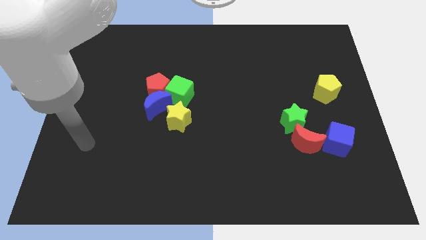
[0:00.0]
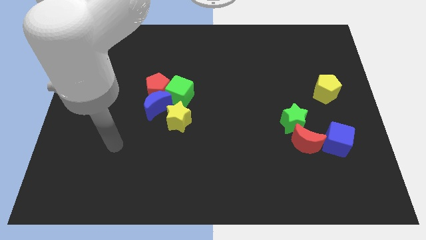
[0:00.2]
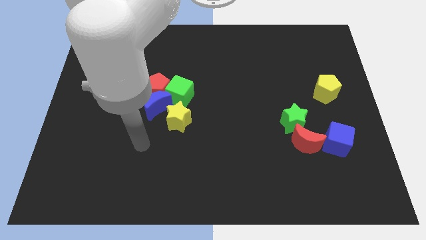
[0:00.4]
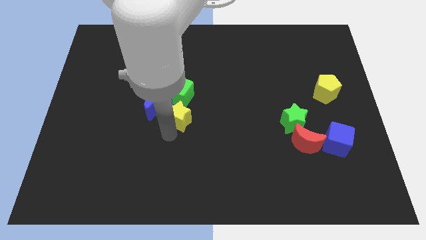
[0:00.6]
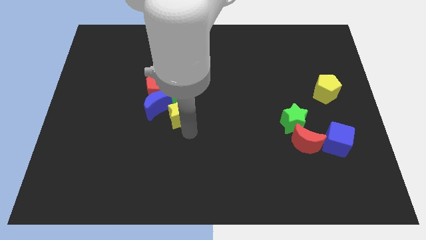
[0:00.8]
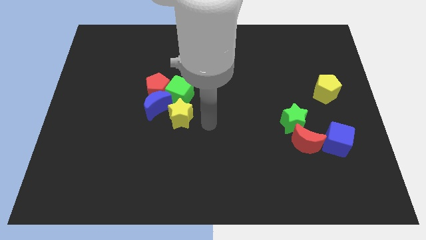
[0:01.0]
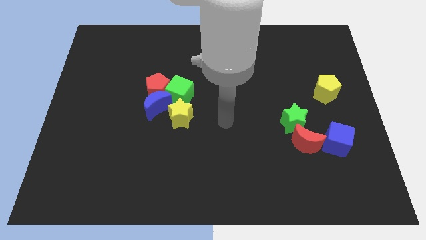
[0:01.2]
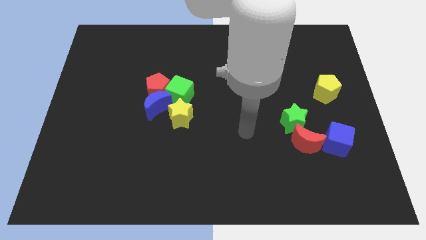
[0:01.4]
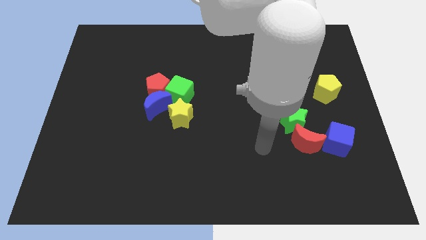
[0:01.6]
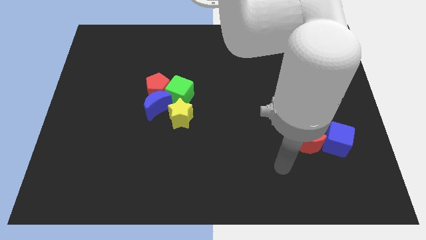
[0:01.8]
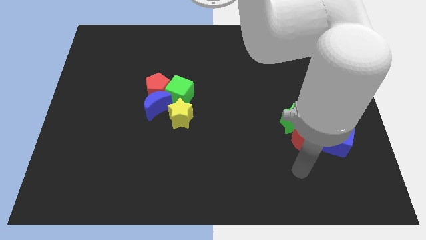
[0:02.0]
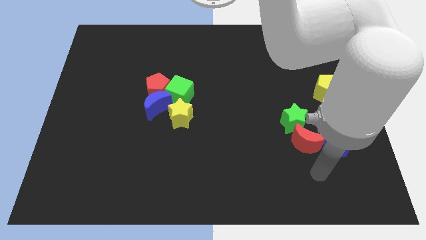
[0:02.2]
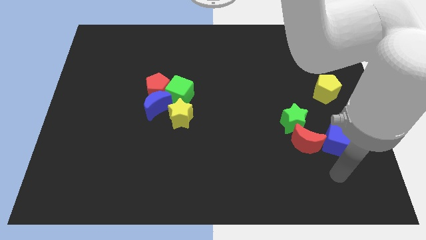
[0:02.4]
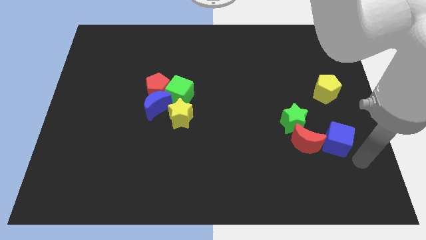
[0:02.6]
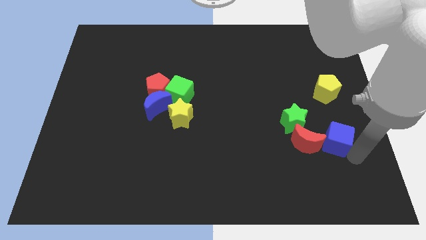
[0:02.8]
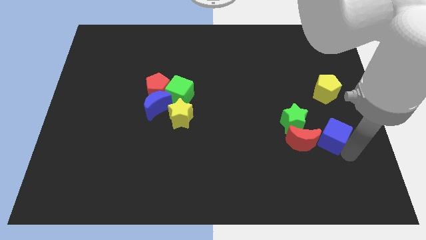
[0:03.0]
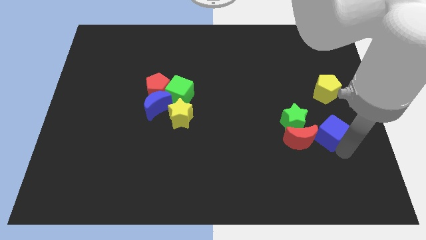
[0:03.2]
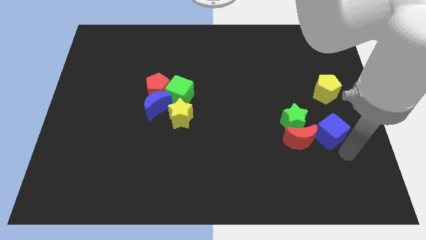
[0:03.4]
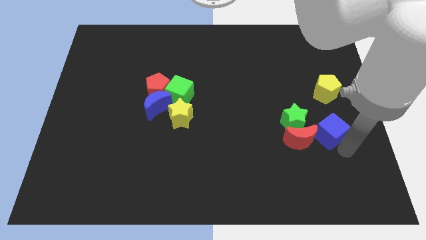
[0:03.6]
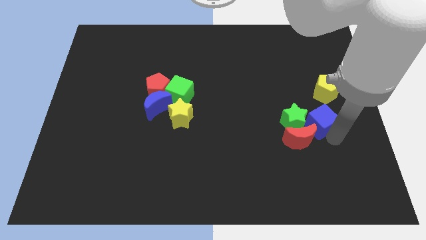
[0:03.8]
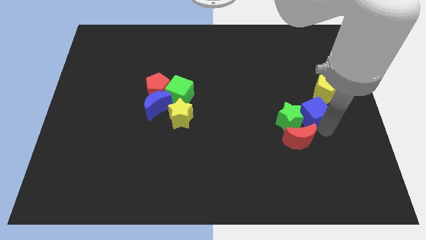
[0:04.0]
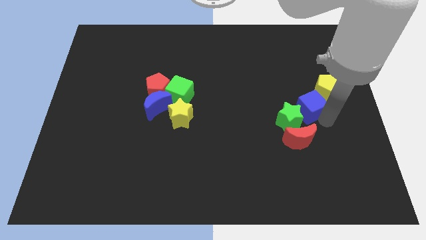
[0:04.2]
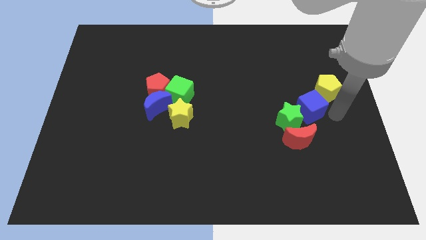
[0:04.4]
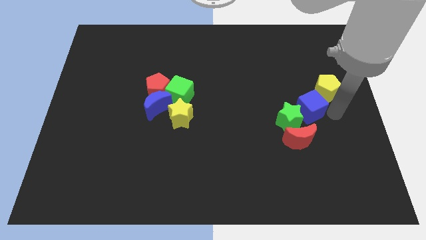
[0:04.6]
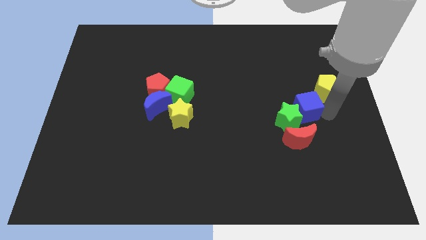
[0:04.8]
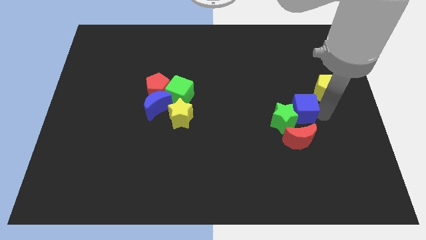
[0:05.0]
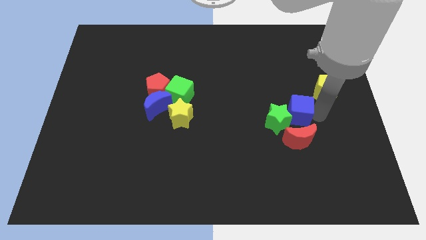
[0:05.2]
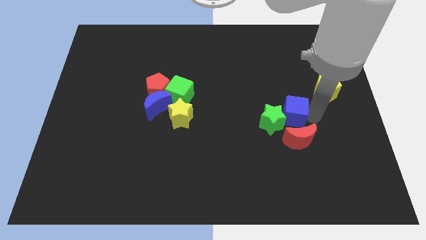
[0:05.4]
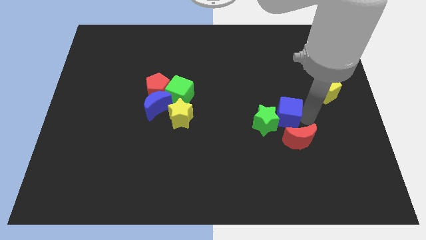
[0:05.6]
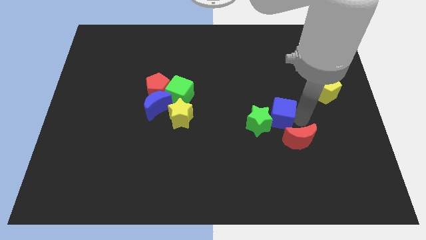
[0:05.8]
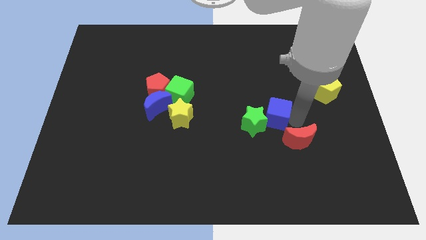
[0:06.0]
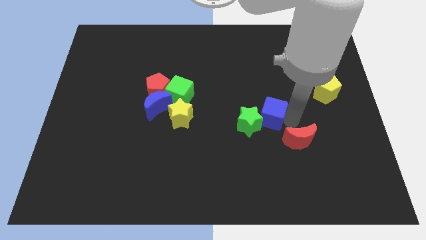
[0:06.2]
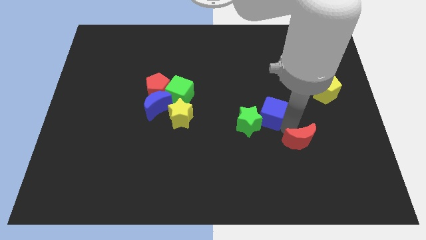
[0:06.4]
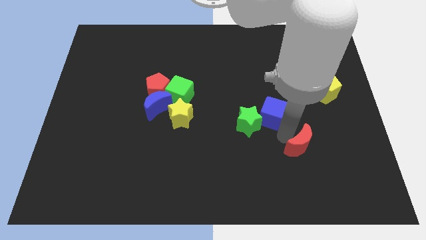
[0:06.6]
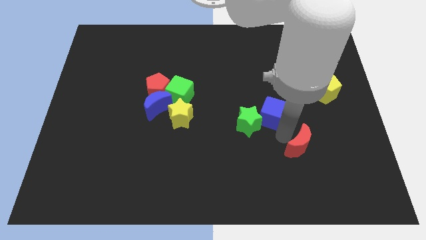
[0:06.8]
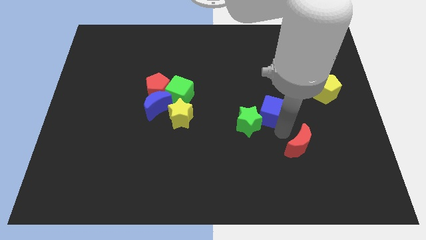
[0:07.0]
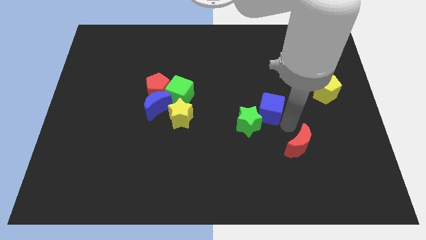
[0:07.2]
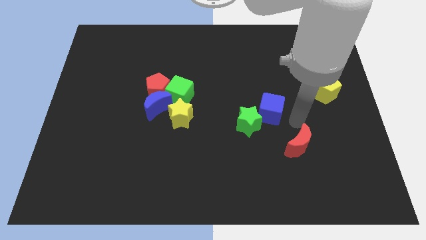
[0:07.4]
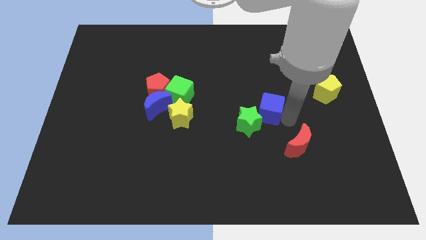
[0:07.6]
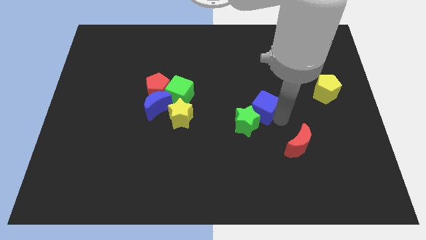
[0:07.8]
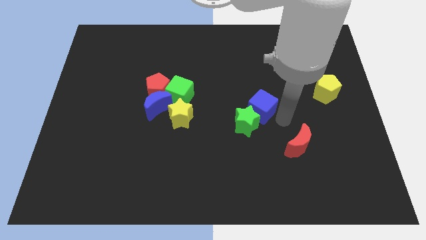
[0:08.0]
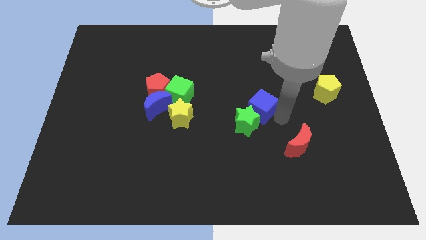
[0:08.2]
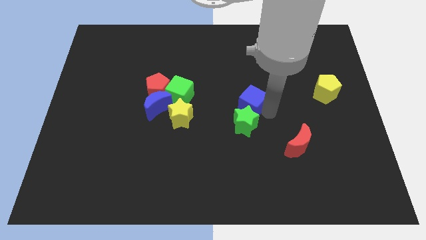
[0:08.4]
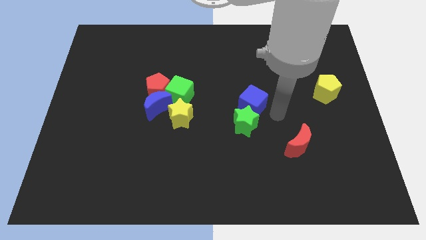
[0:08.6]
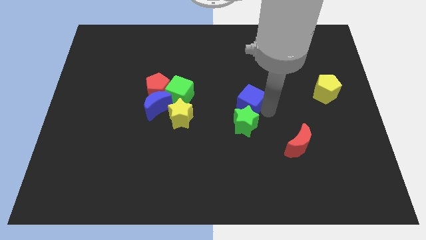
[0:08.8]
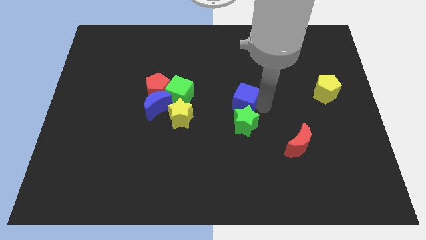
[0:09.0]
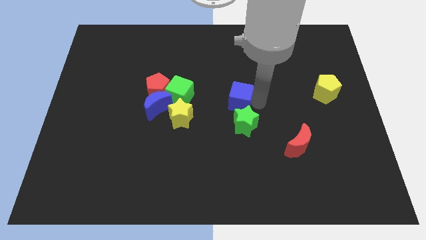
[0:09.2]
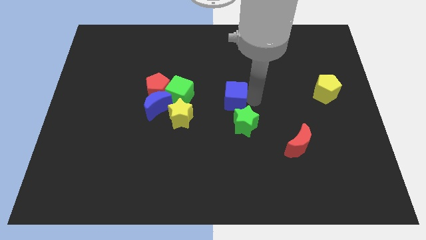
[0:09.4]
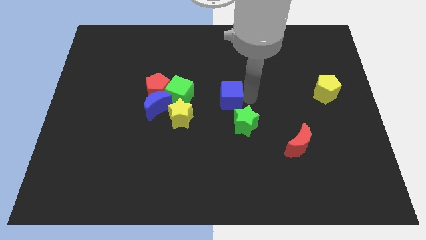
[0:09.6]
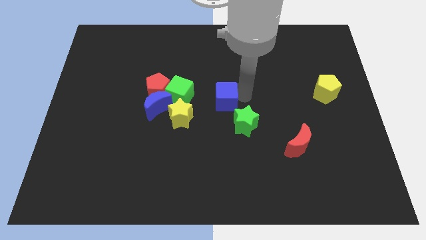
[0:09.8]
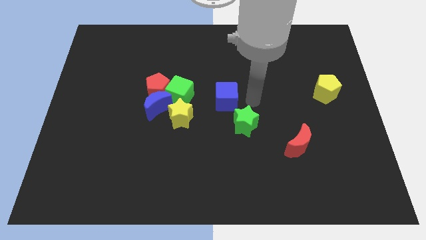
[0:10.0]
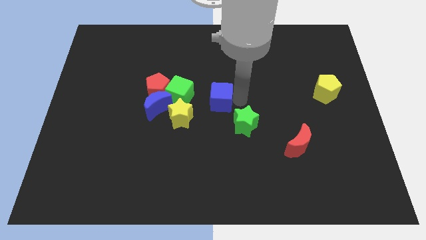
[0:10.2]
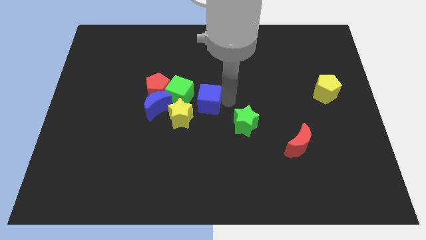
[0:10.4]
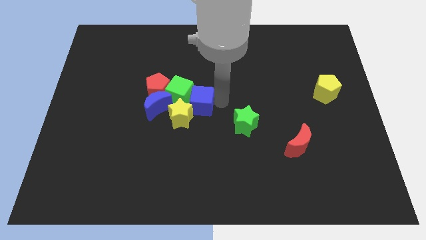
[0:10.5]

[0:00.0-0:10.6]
move the blue cube to the green cube

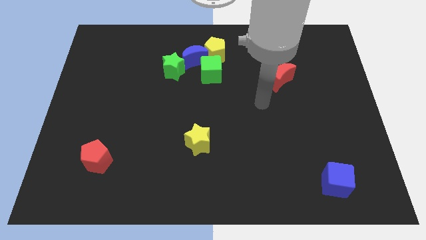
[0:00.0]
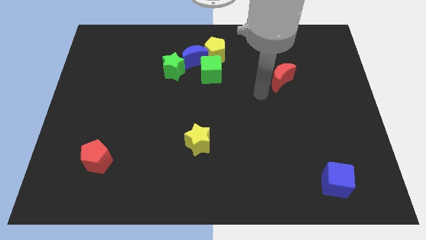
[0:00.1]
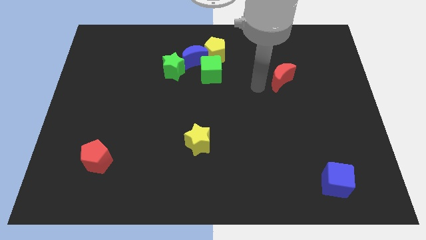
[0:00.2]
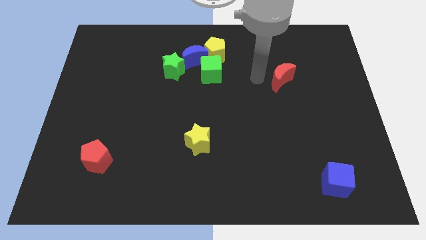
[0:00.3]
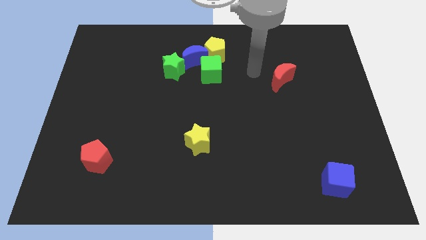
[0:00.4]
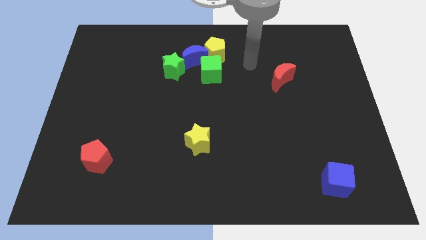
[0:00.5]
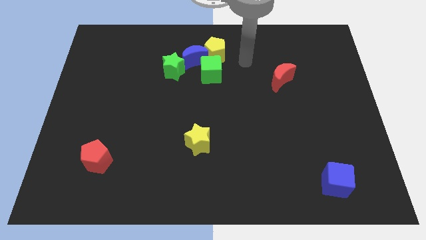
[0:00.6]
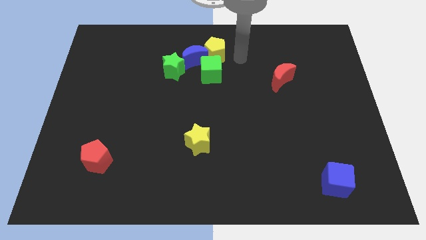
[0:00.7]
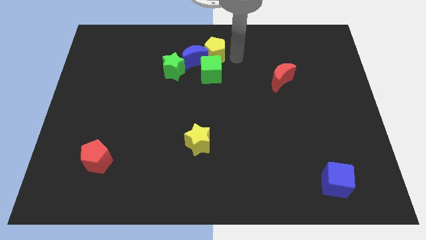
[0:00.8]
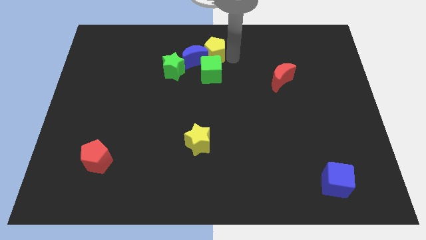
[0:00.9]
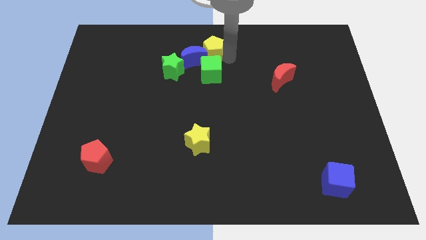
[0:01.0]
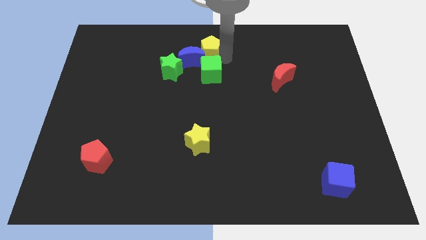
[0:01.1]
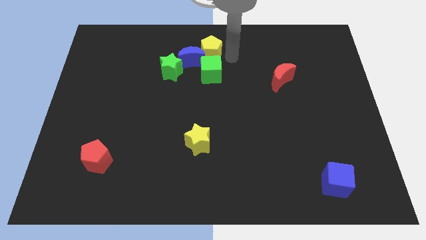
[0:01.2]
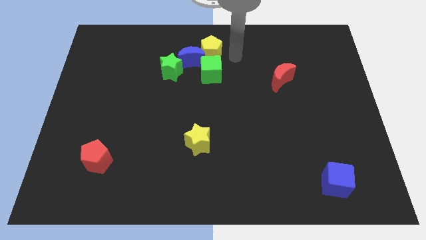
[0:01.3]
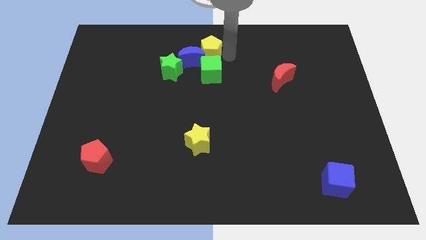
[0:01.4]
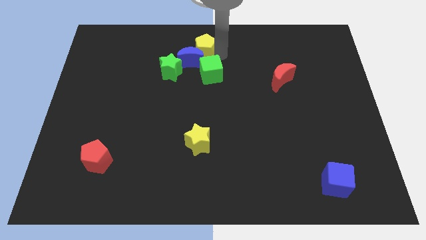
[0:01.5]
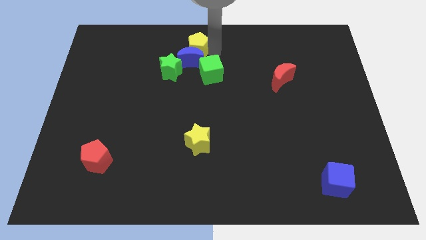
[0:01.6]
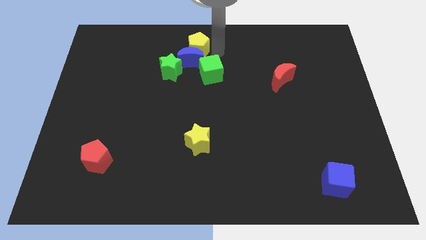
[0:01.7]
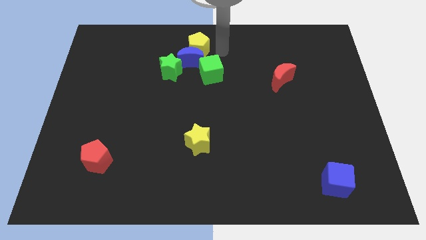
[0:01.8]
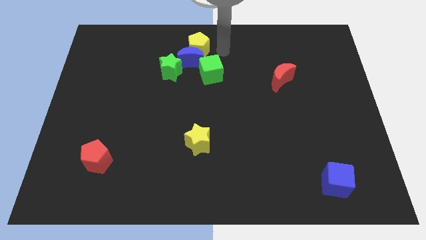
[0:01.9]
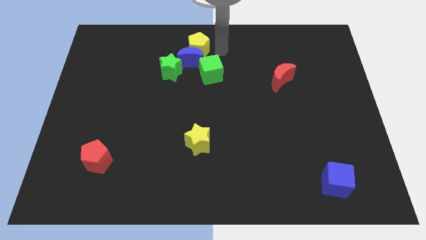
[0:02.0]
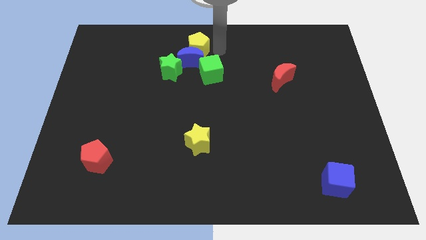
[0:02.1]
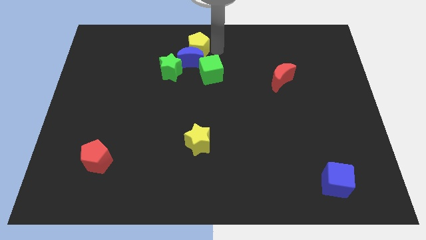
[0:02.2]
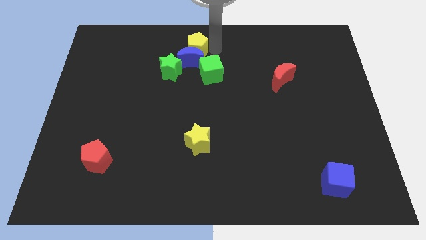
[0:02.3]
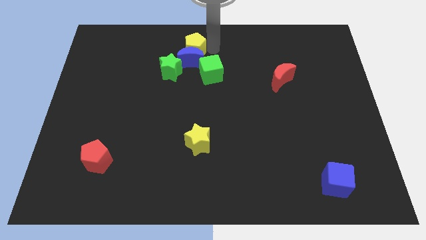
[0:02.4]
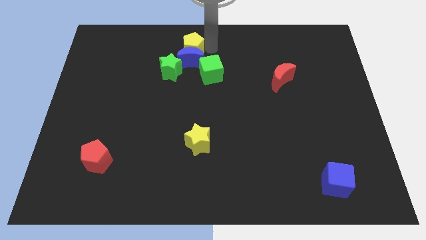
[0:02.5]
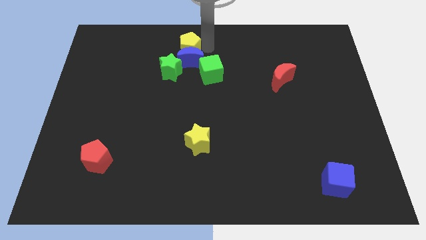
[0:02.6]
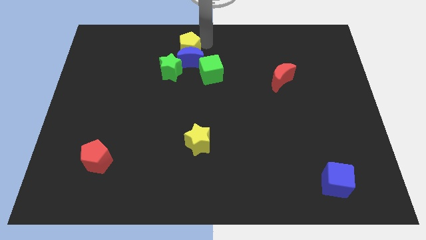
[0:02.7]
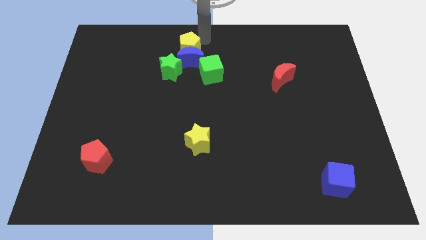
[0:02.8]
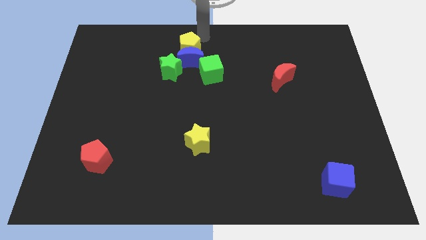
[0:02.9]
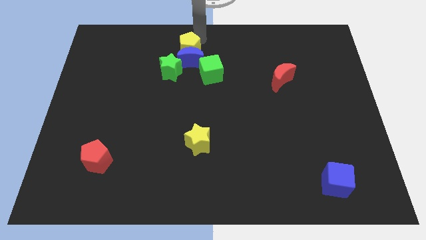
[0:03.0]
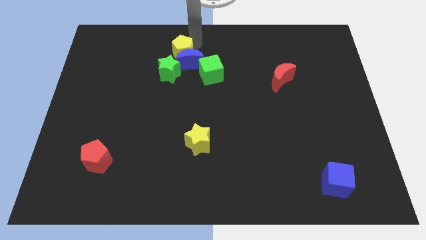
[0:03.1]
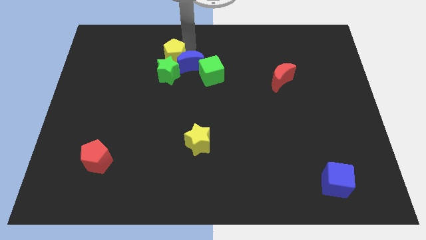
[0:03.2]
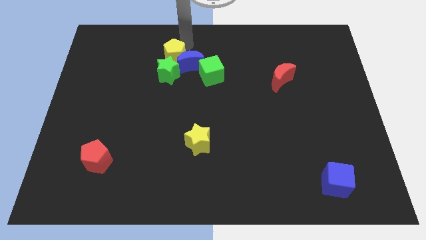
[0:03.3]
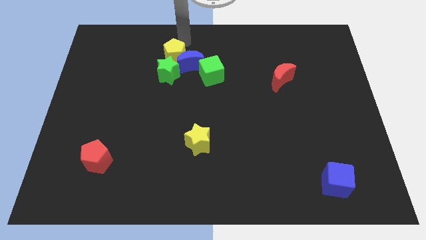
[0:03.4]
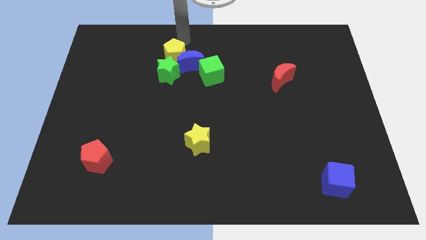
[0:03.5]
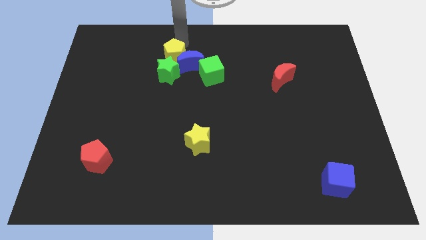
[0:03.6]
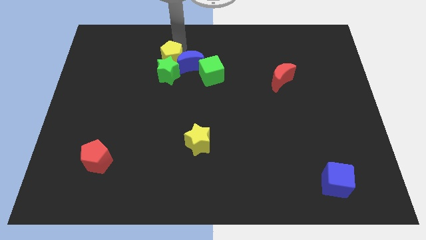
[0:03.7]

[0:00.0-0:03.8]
move the yellow pentagon next to the green star
